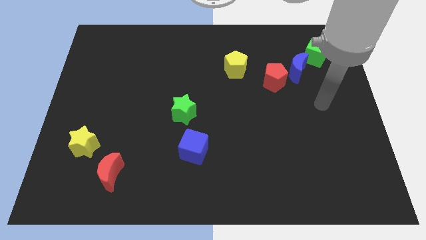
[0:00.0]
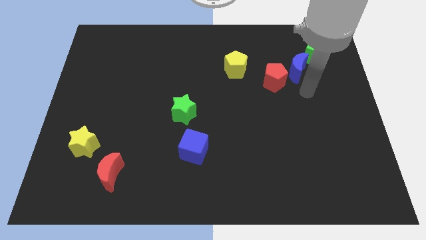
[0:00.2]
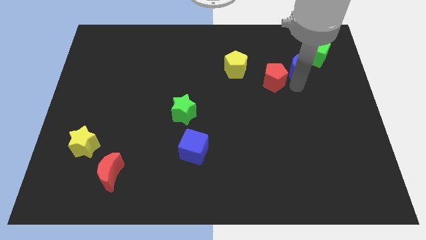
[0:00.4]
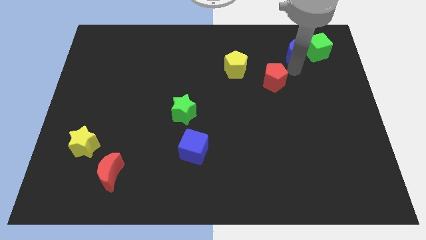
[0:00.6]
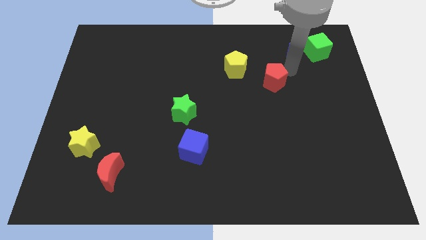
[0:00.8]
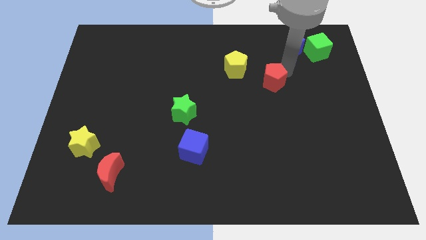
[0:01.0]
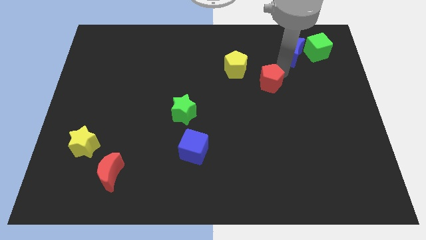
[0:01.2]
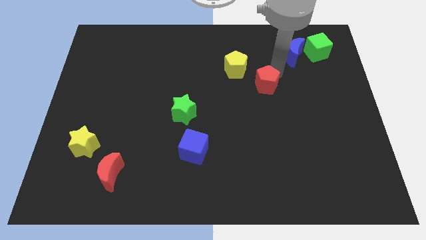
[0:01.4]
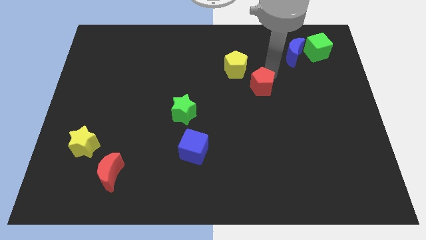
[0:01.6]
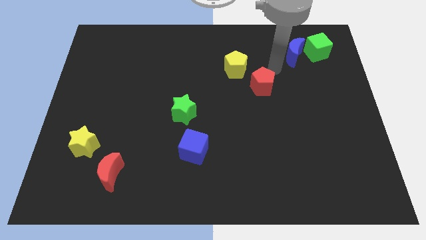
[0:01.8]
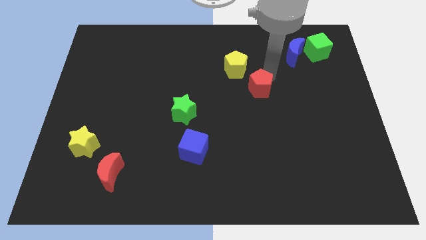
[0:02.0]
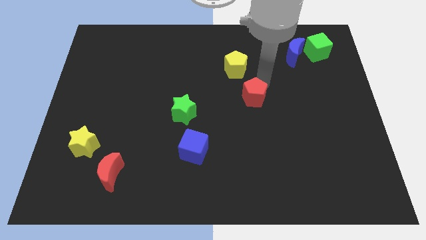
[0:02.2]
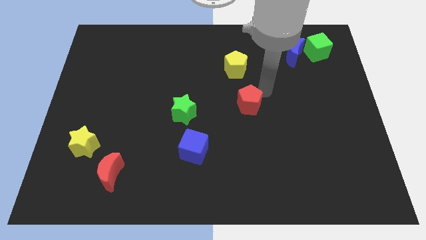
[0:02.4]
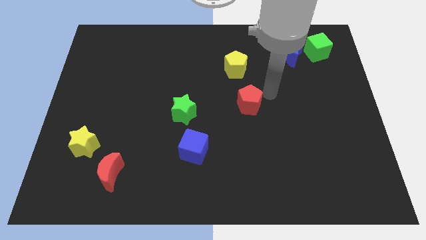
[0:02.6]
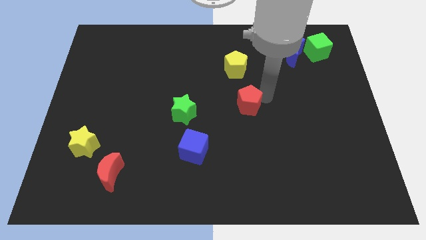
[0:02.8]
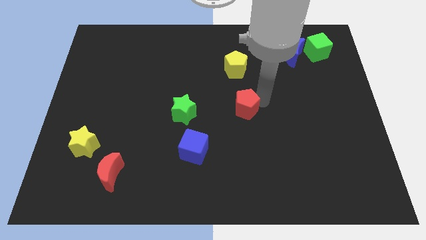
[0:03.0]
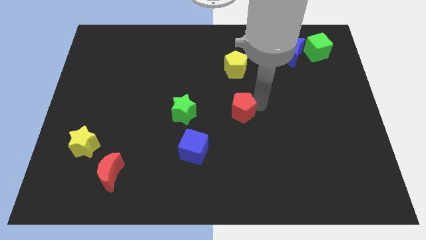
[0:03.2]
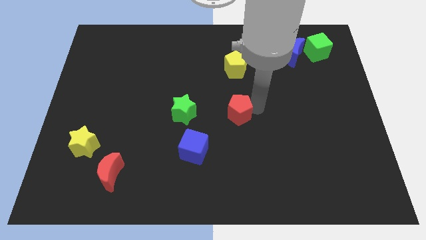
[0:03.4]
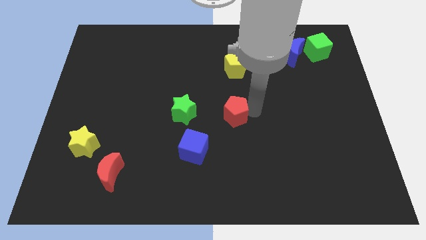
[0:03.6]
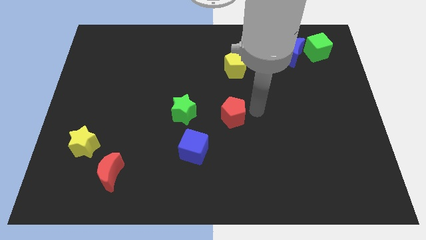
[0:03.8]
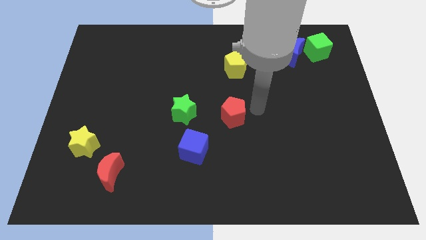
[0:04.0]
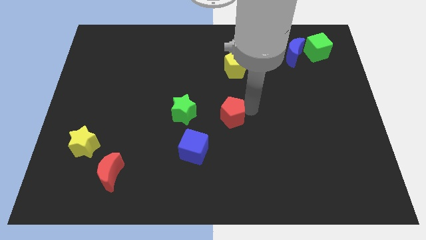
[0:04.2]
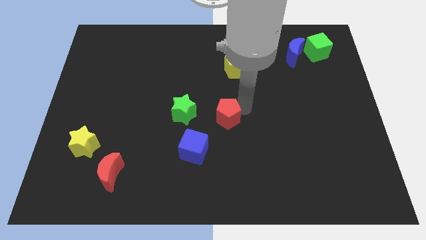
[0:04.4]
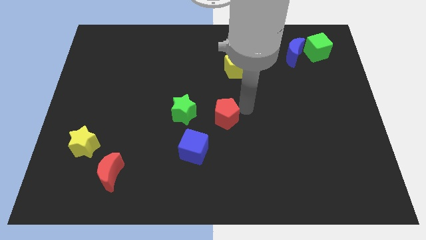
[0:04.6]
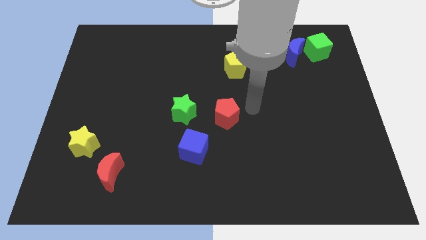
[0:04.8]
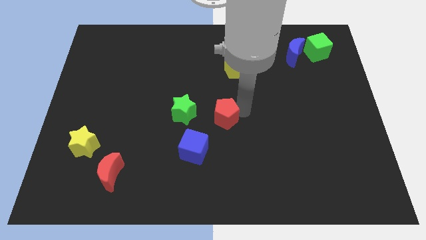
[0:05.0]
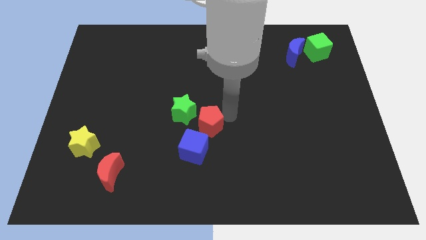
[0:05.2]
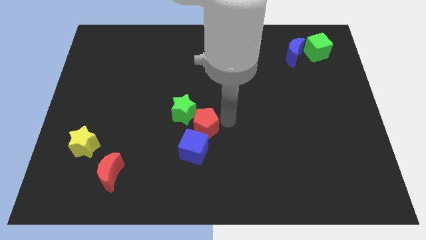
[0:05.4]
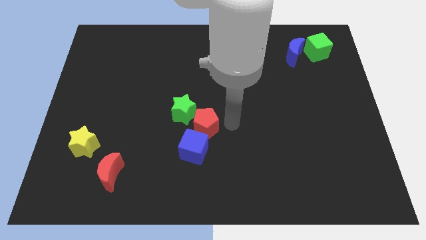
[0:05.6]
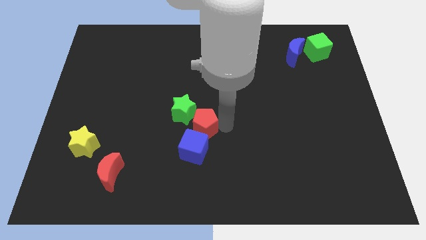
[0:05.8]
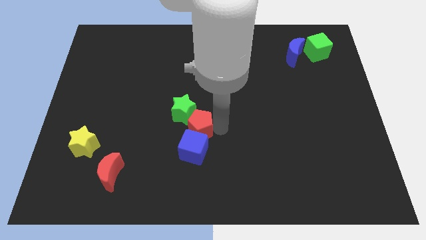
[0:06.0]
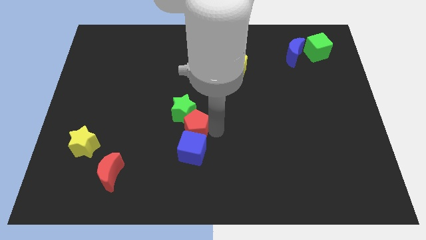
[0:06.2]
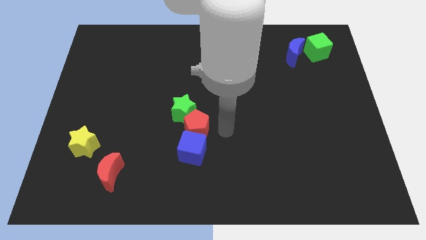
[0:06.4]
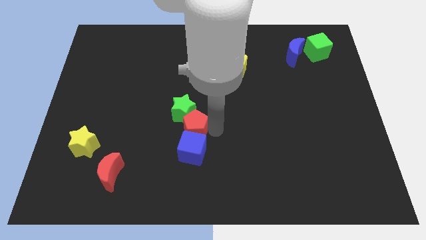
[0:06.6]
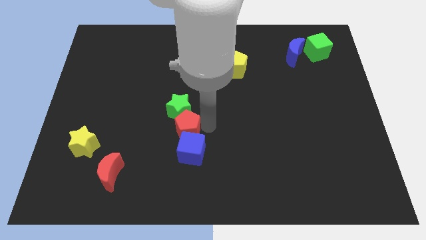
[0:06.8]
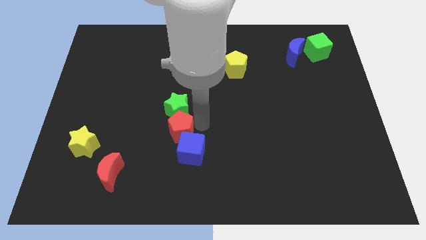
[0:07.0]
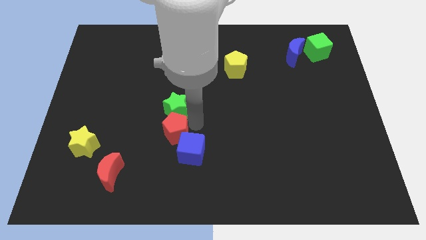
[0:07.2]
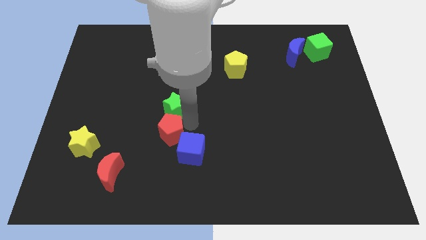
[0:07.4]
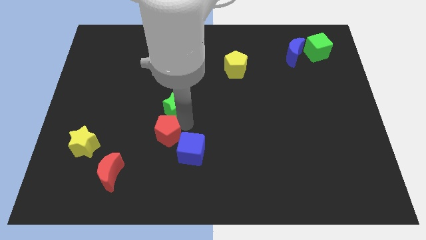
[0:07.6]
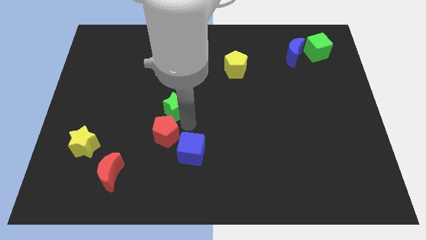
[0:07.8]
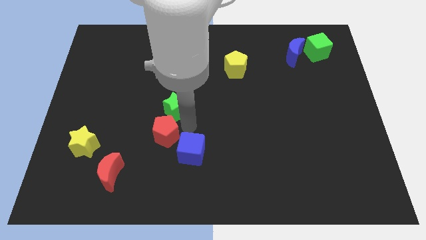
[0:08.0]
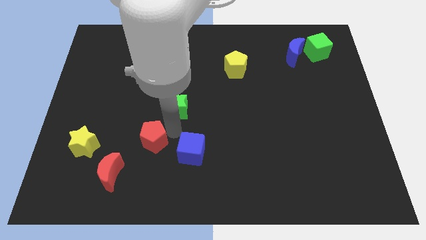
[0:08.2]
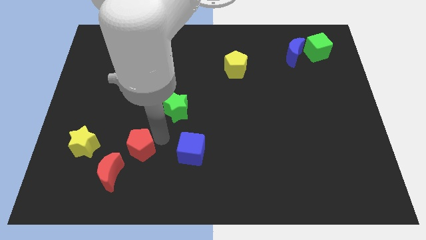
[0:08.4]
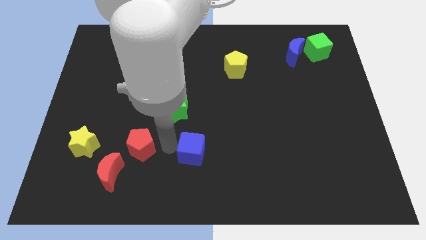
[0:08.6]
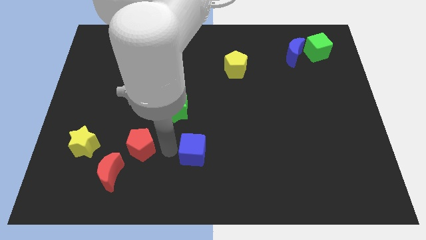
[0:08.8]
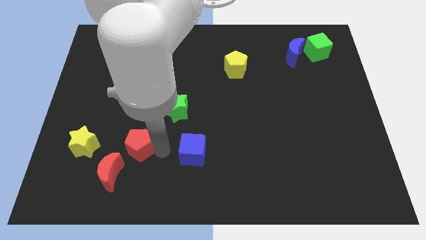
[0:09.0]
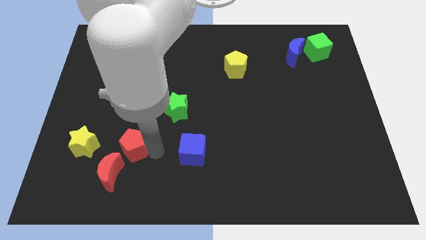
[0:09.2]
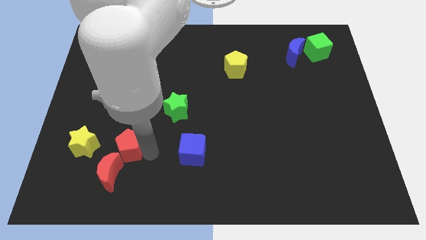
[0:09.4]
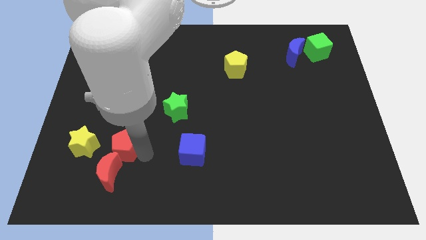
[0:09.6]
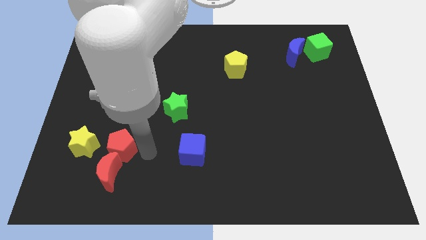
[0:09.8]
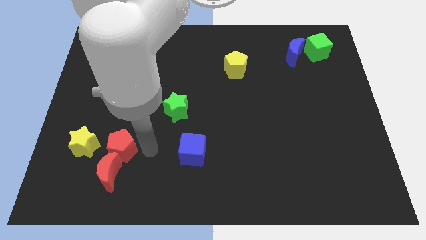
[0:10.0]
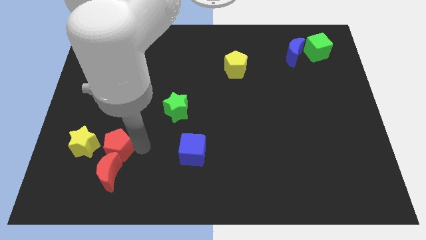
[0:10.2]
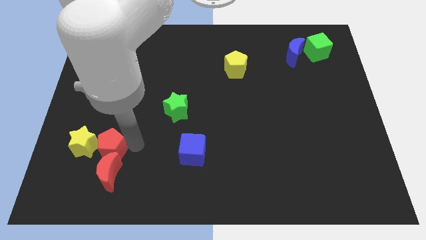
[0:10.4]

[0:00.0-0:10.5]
push the red pentagon next to the yellow star

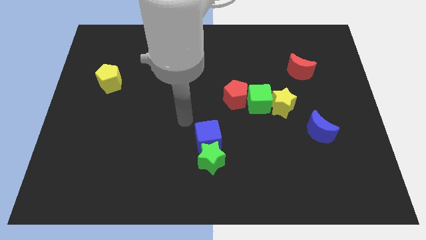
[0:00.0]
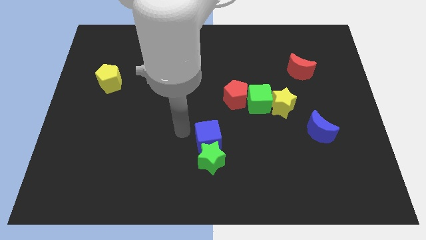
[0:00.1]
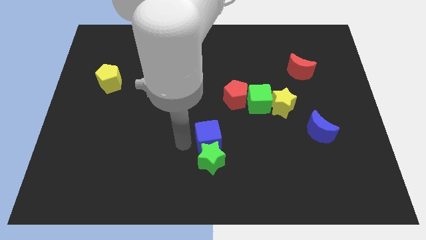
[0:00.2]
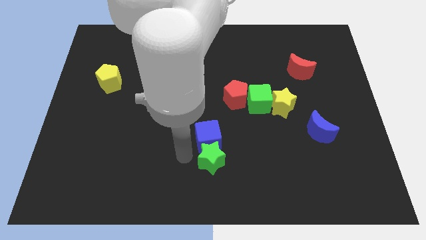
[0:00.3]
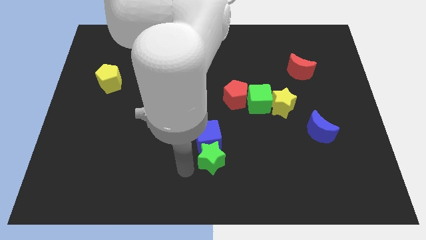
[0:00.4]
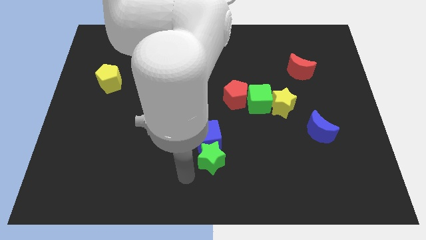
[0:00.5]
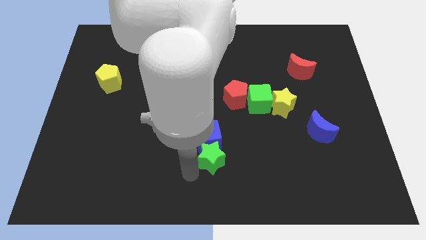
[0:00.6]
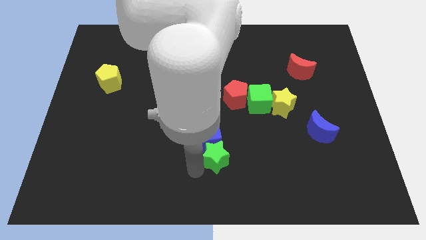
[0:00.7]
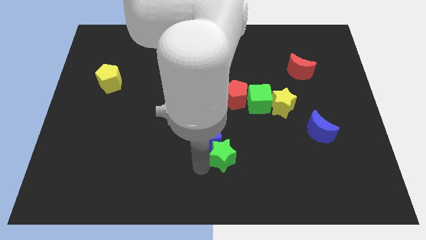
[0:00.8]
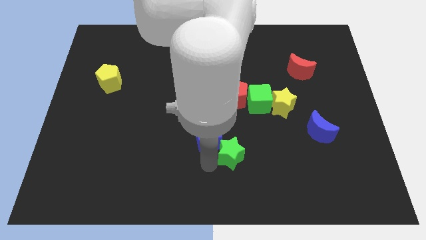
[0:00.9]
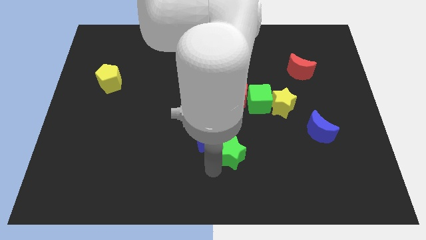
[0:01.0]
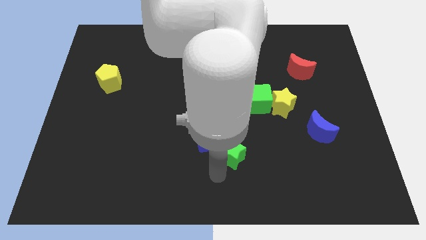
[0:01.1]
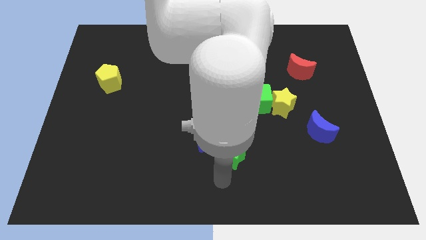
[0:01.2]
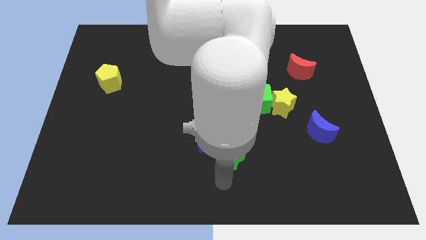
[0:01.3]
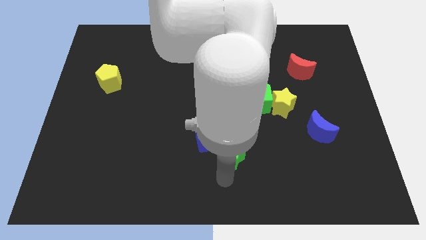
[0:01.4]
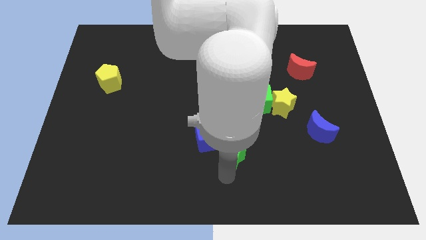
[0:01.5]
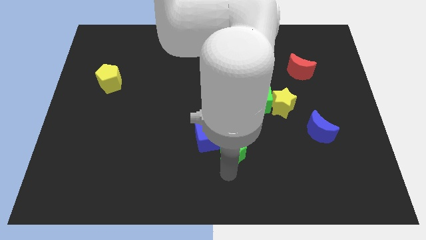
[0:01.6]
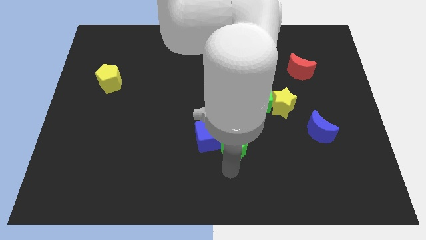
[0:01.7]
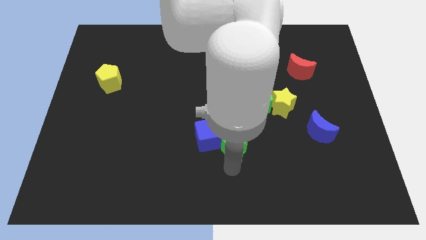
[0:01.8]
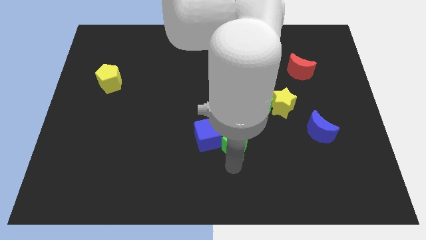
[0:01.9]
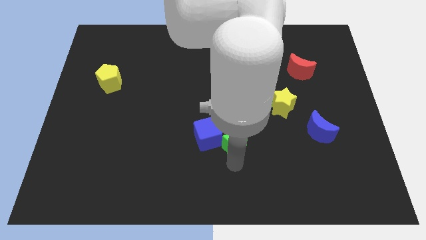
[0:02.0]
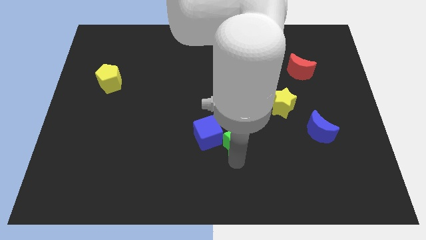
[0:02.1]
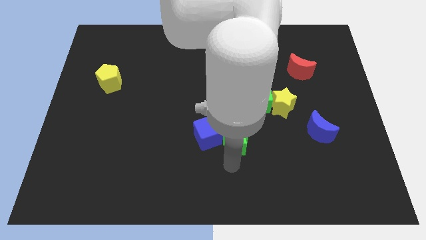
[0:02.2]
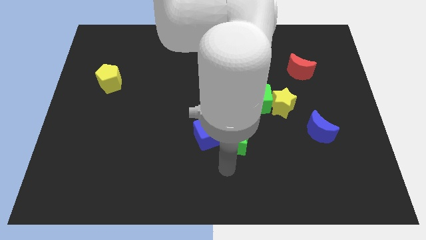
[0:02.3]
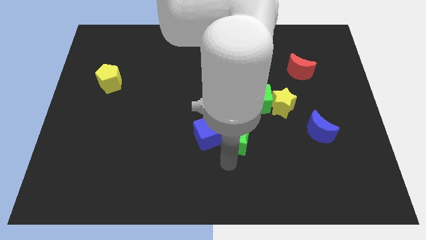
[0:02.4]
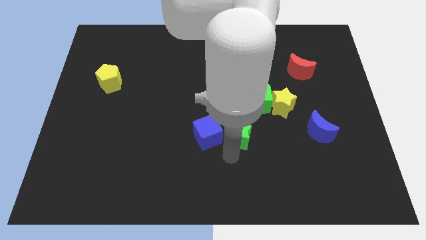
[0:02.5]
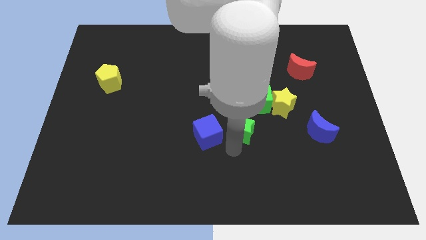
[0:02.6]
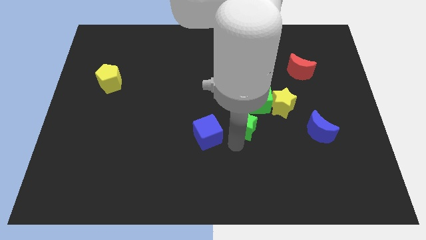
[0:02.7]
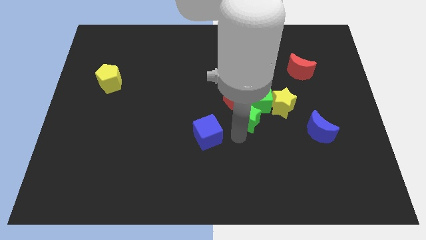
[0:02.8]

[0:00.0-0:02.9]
move the green star towards the green cube
